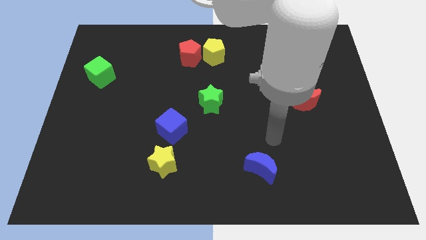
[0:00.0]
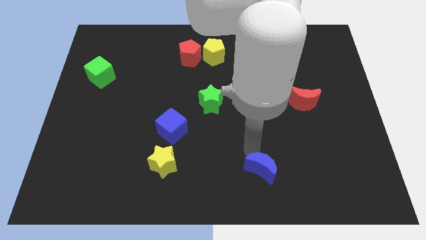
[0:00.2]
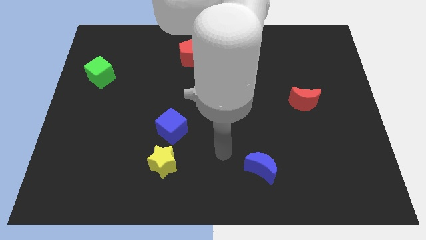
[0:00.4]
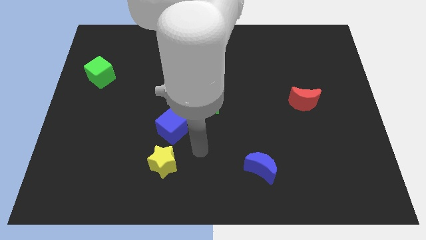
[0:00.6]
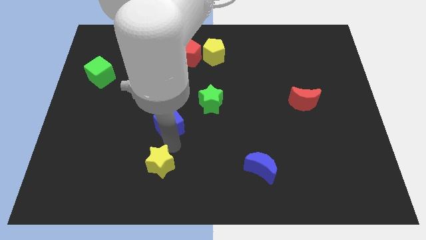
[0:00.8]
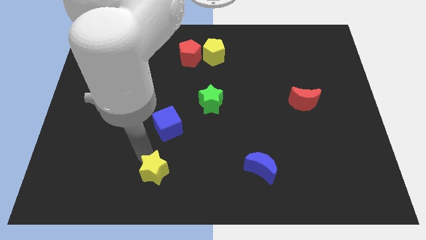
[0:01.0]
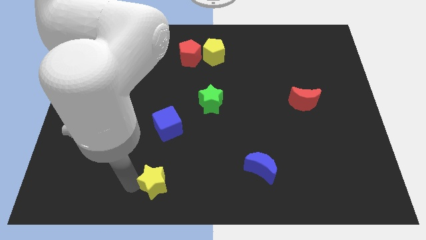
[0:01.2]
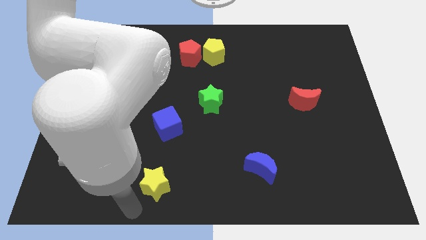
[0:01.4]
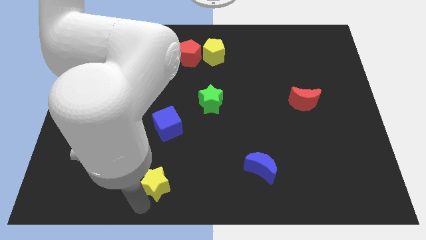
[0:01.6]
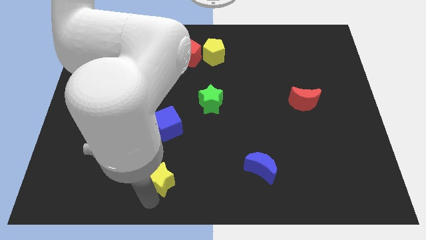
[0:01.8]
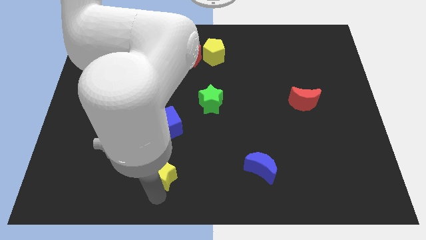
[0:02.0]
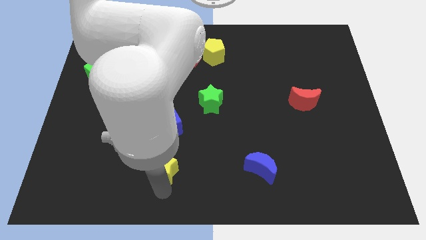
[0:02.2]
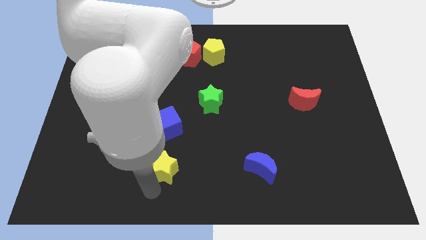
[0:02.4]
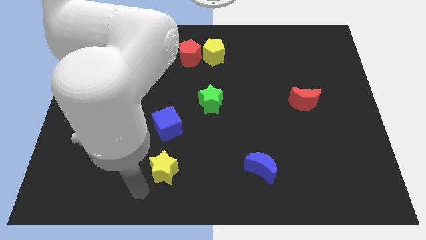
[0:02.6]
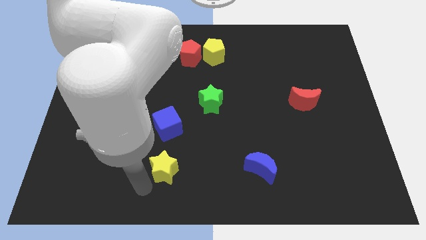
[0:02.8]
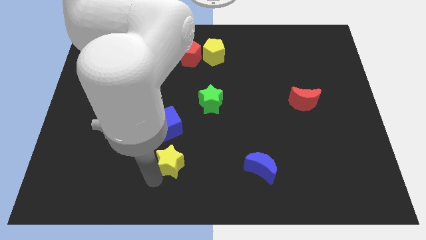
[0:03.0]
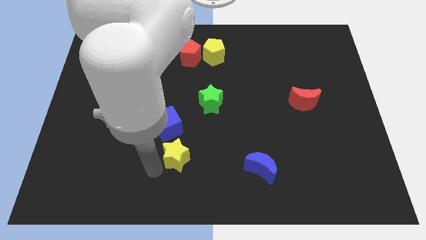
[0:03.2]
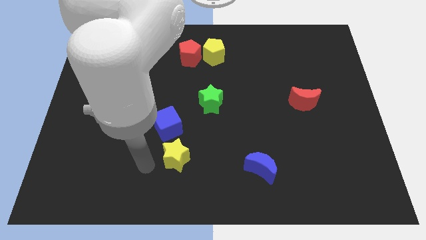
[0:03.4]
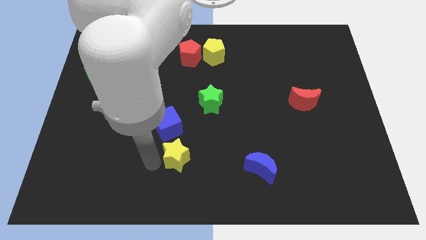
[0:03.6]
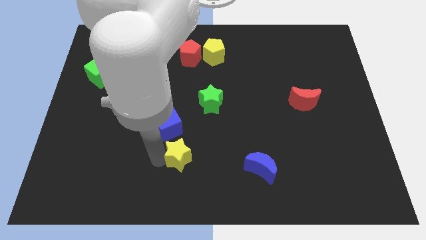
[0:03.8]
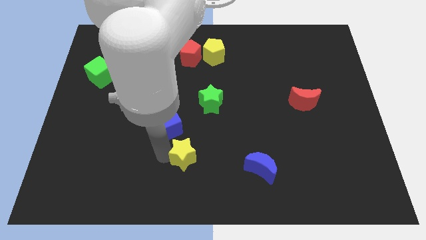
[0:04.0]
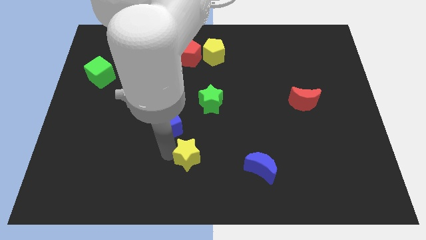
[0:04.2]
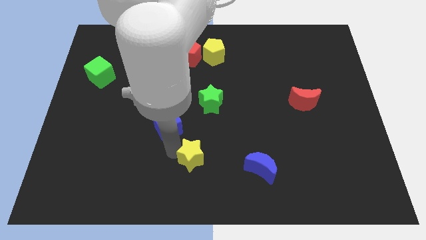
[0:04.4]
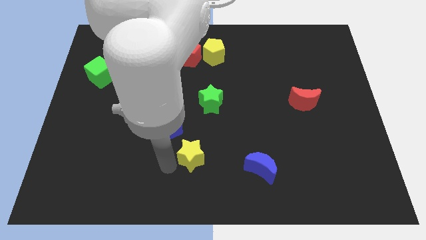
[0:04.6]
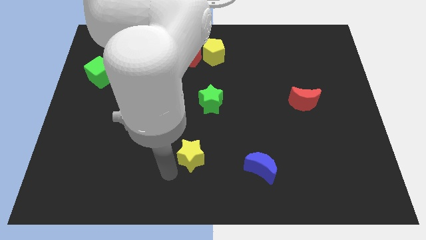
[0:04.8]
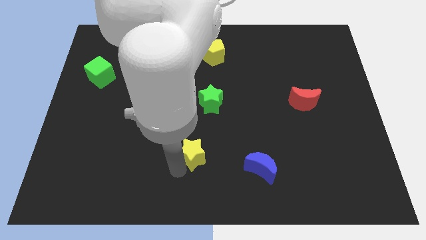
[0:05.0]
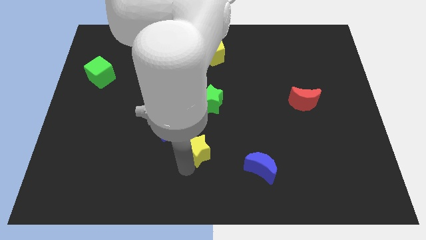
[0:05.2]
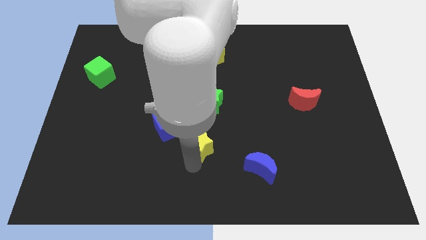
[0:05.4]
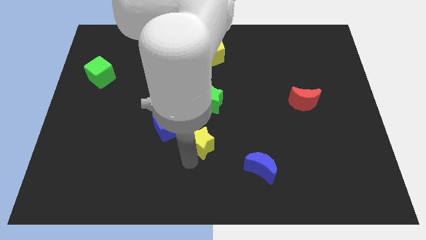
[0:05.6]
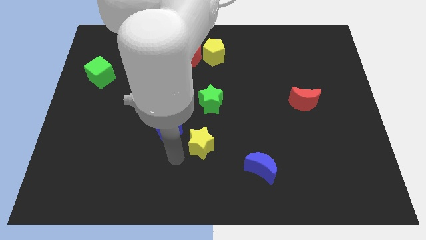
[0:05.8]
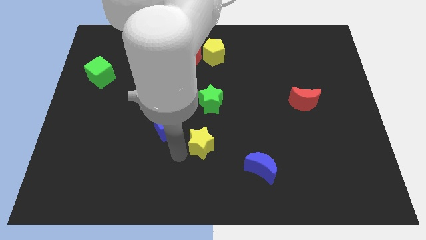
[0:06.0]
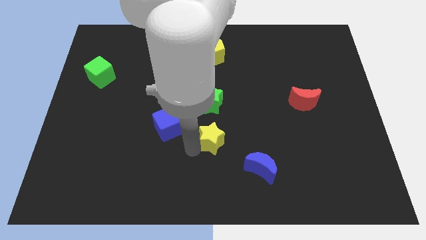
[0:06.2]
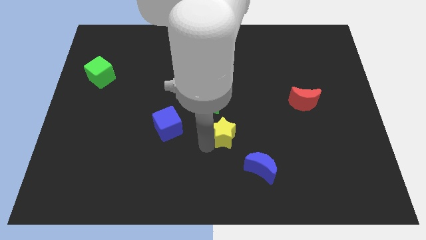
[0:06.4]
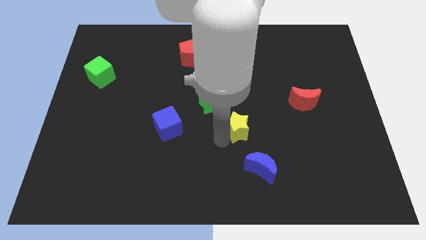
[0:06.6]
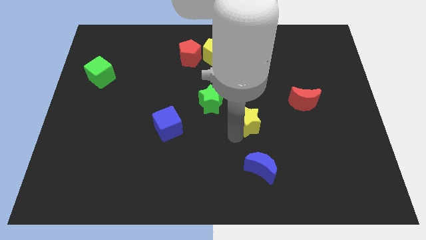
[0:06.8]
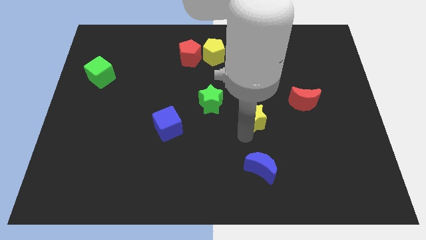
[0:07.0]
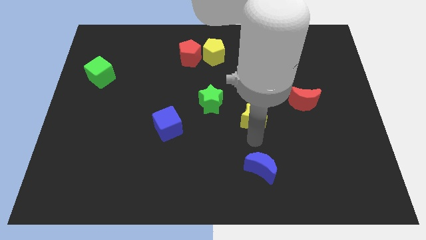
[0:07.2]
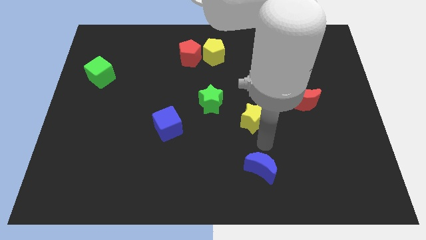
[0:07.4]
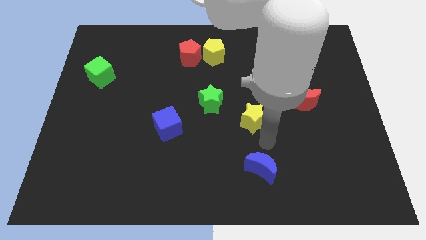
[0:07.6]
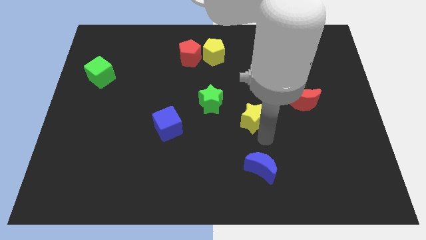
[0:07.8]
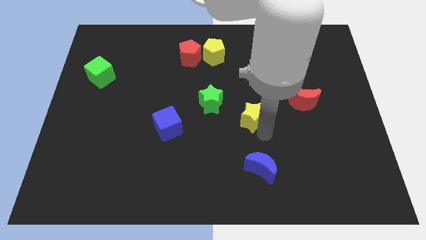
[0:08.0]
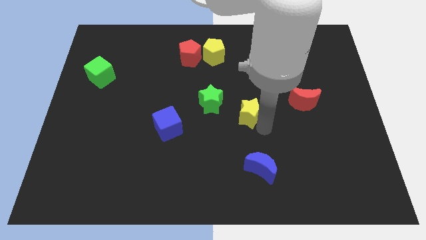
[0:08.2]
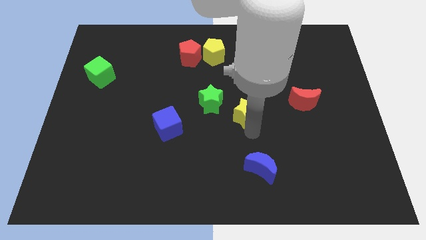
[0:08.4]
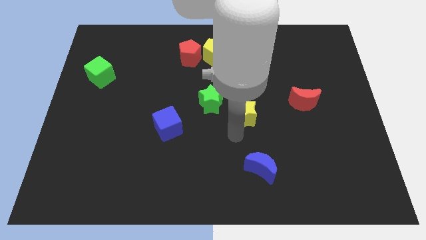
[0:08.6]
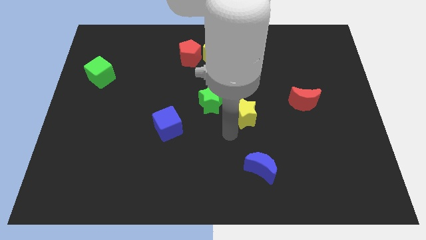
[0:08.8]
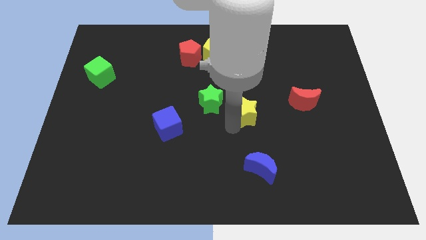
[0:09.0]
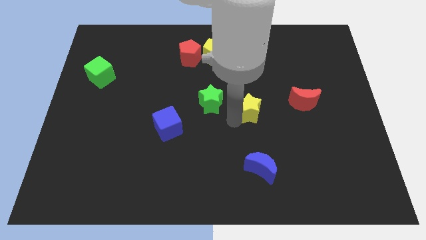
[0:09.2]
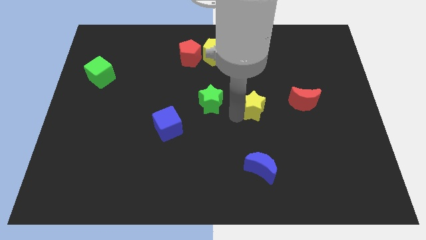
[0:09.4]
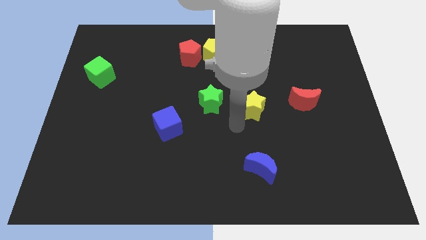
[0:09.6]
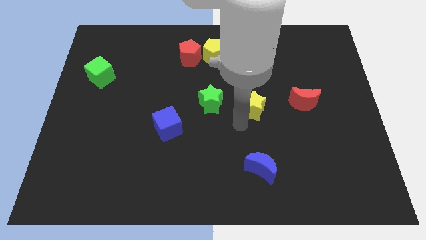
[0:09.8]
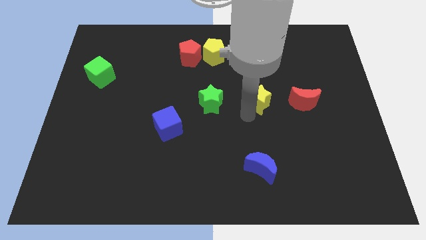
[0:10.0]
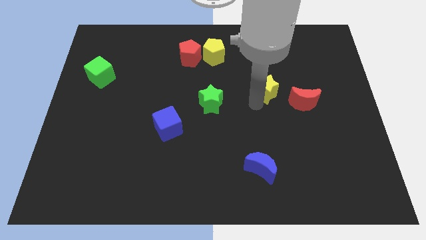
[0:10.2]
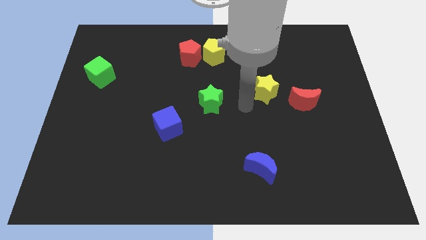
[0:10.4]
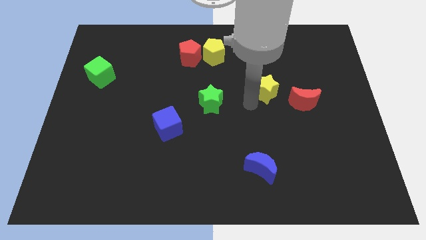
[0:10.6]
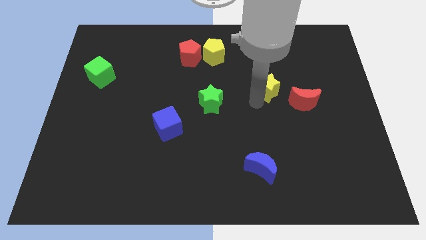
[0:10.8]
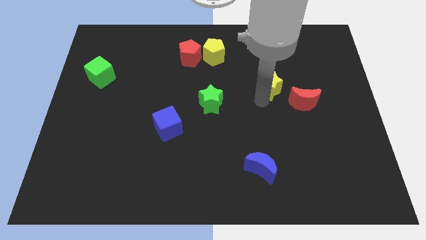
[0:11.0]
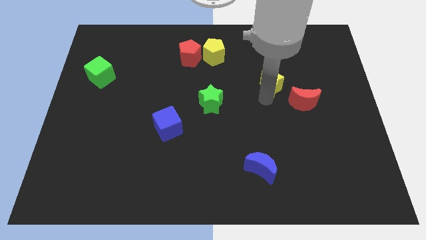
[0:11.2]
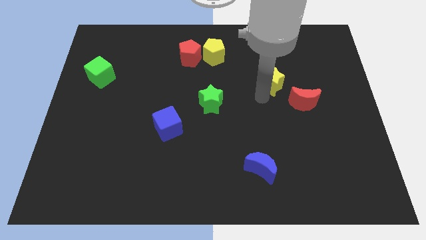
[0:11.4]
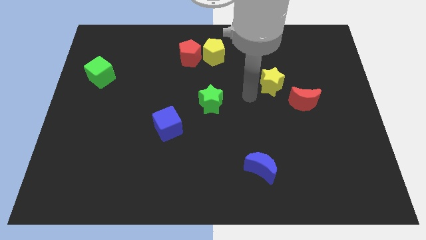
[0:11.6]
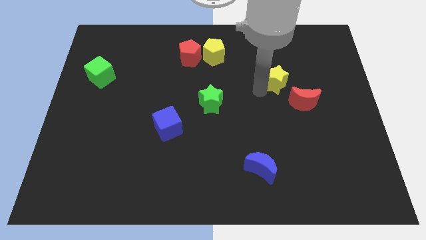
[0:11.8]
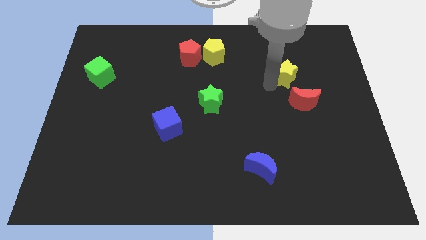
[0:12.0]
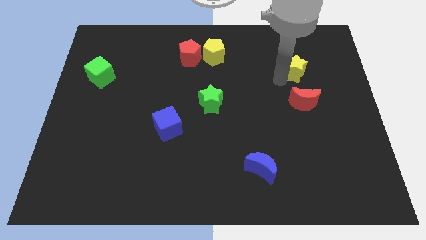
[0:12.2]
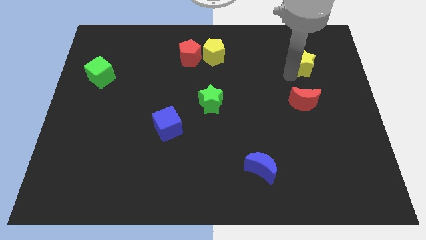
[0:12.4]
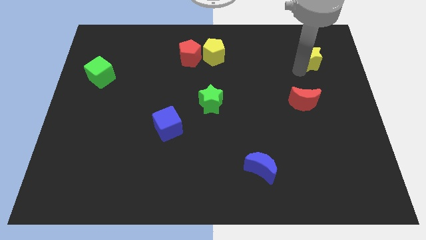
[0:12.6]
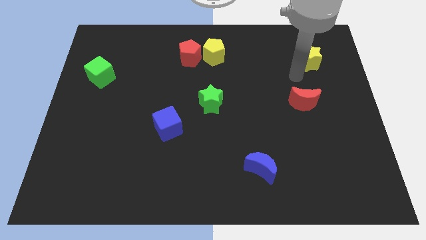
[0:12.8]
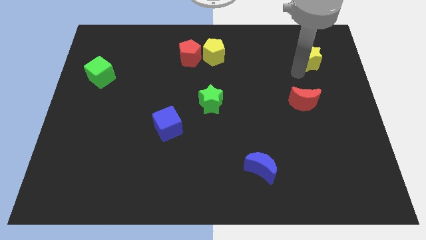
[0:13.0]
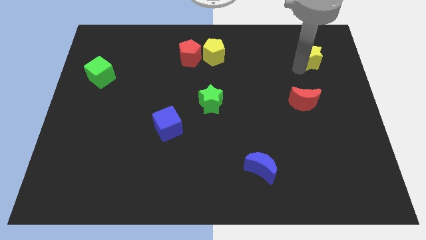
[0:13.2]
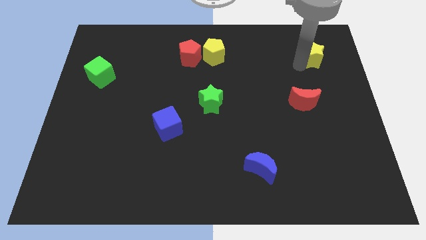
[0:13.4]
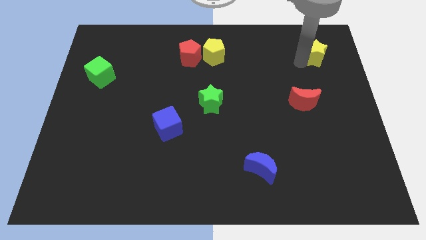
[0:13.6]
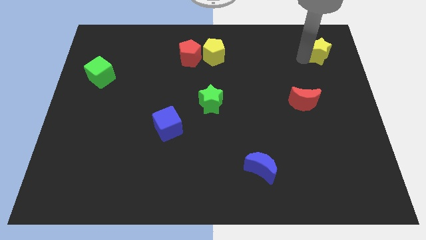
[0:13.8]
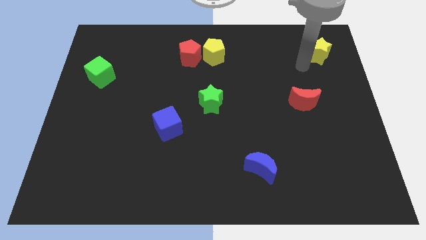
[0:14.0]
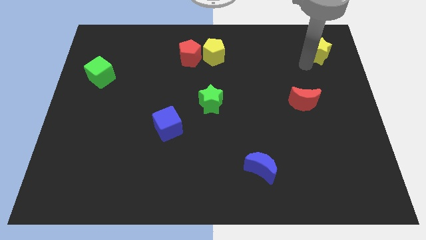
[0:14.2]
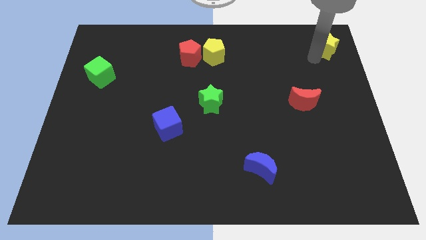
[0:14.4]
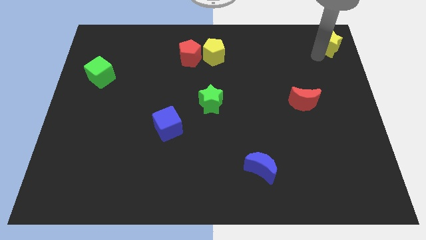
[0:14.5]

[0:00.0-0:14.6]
put the yellow star to the top right
